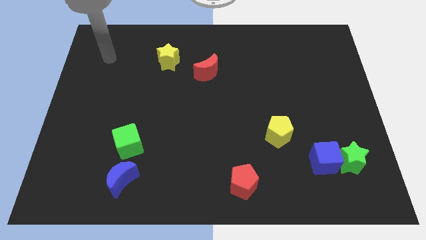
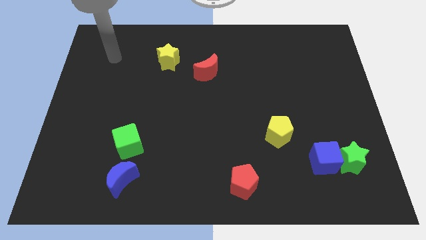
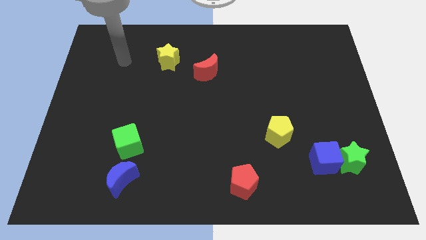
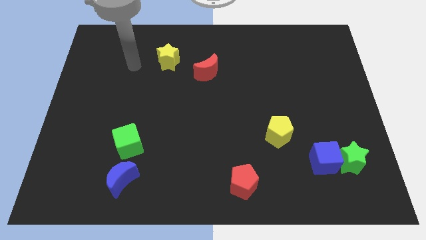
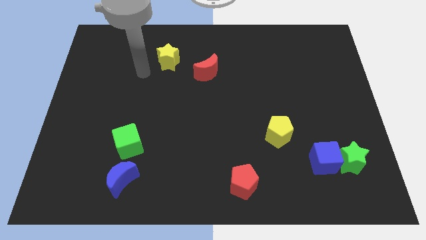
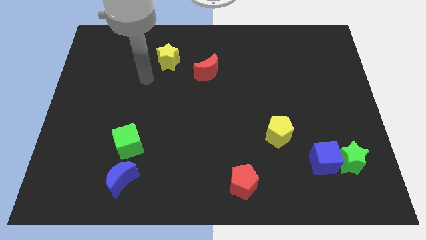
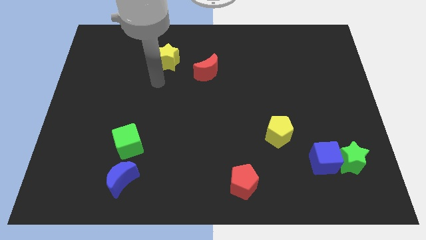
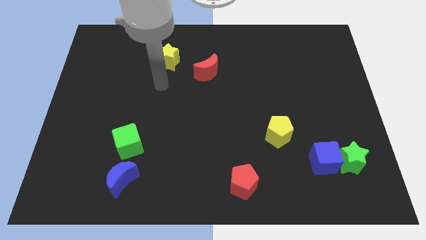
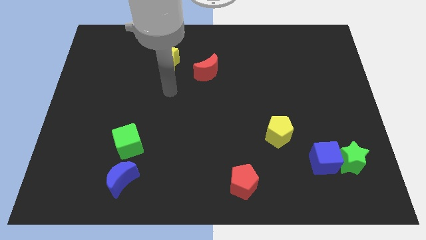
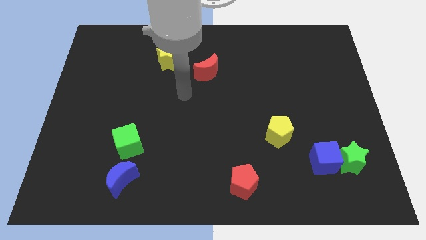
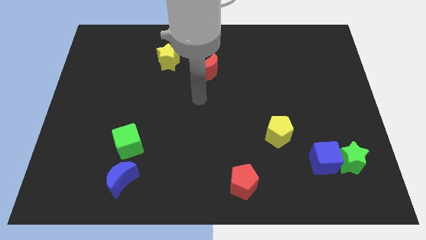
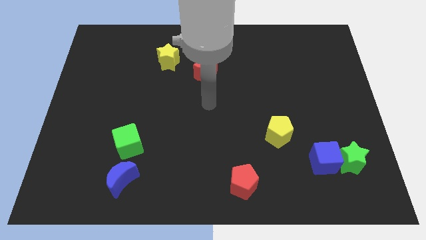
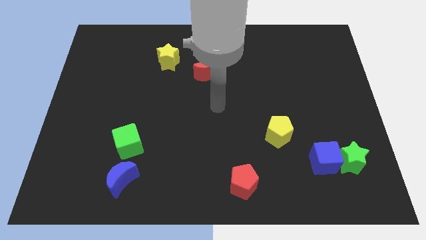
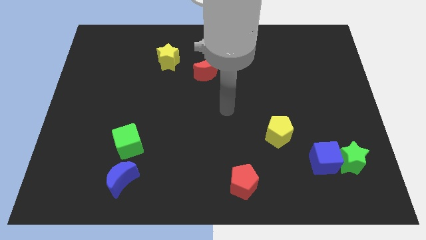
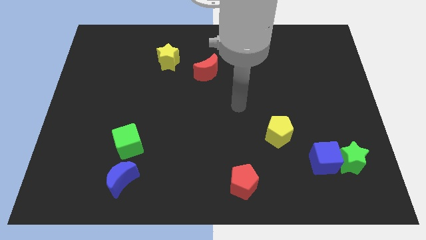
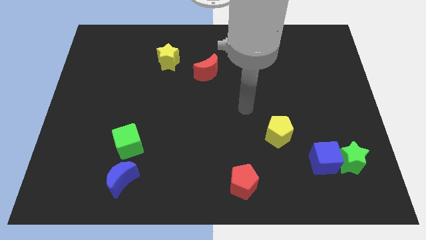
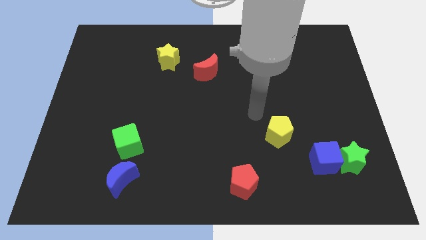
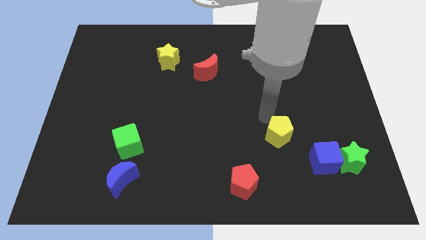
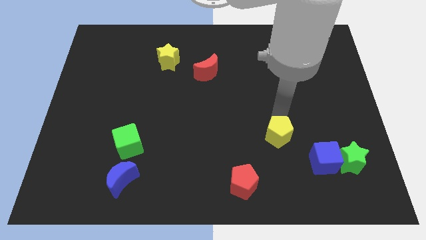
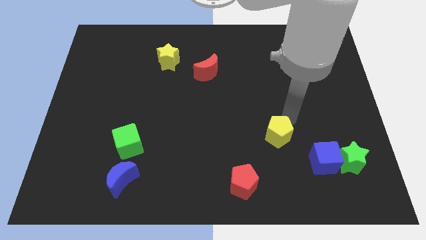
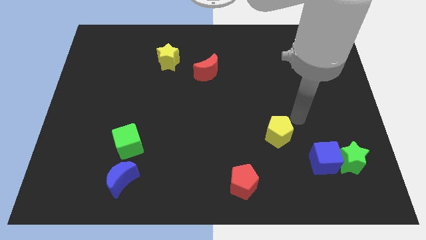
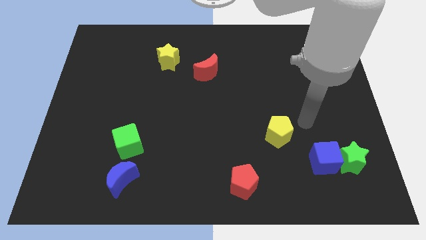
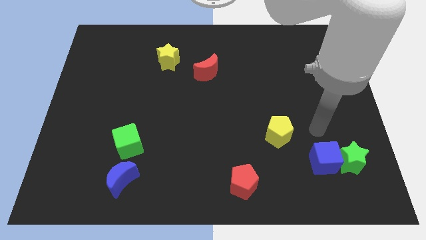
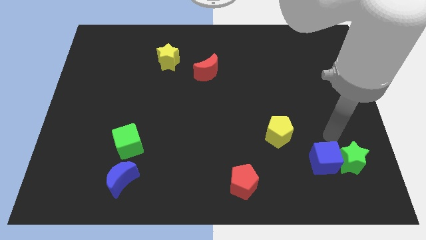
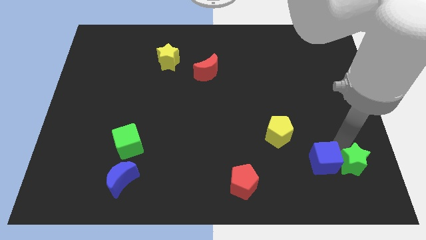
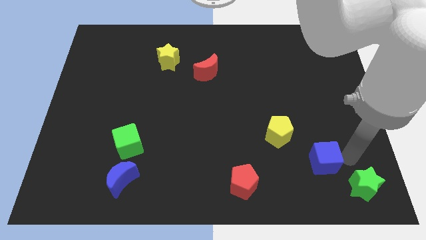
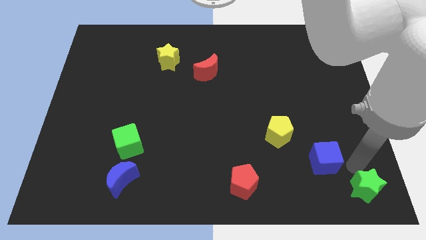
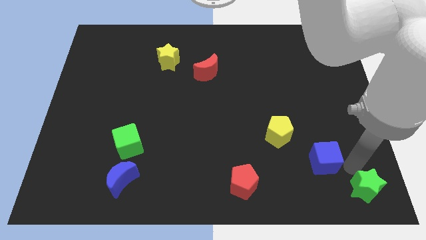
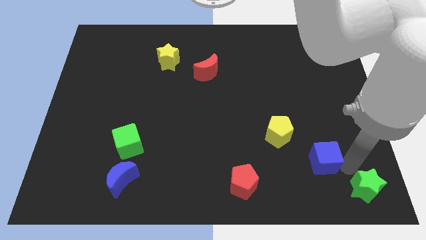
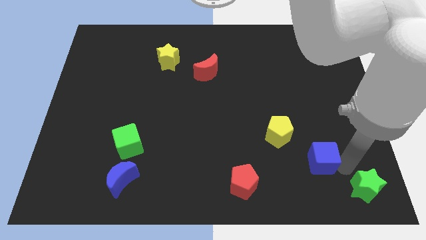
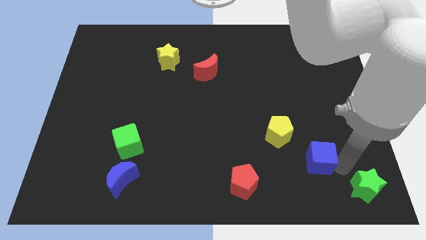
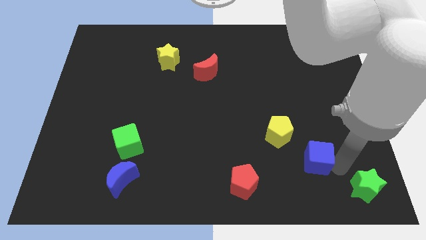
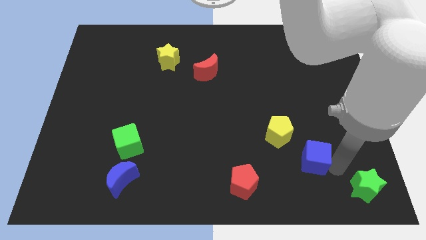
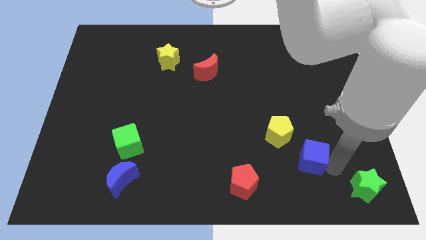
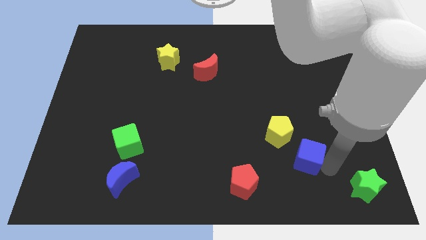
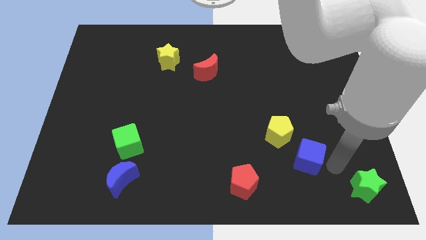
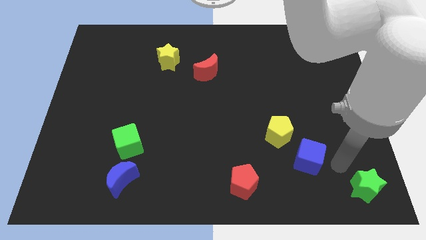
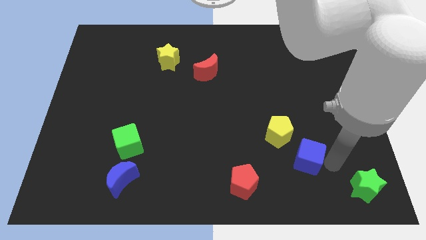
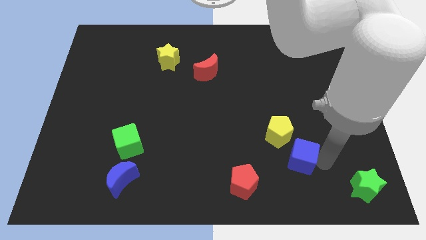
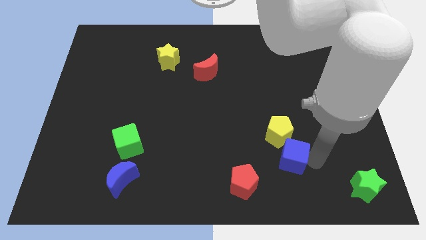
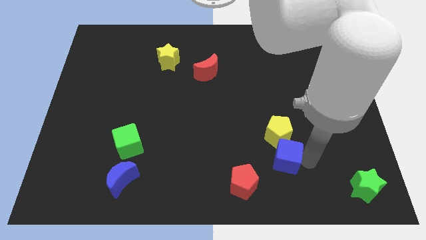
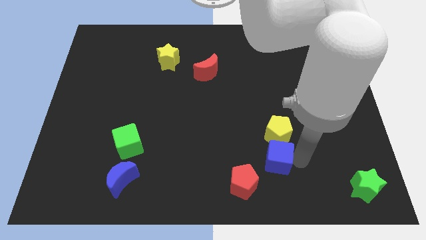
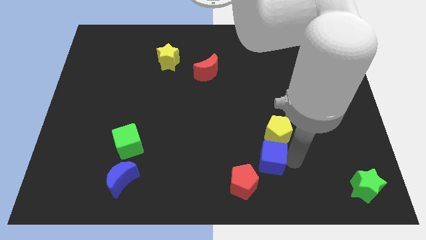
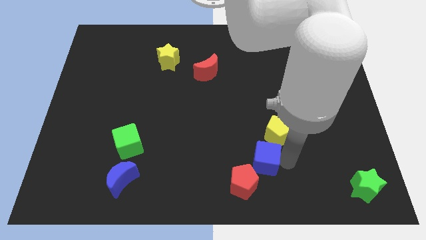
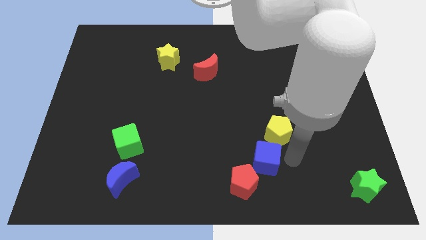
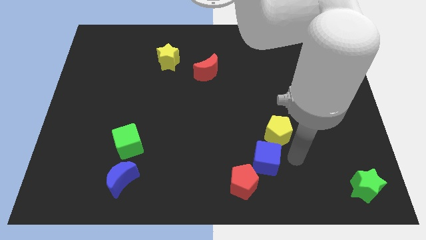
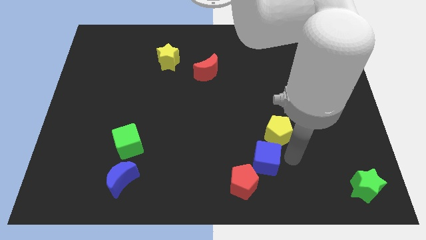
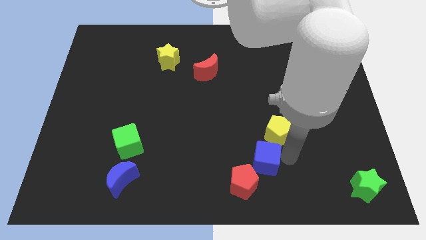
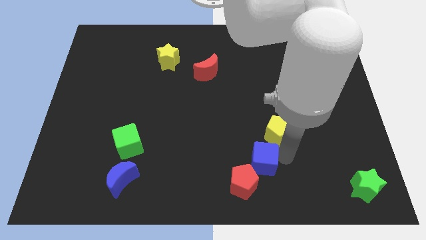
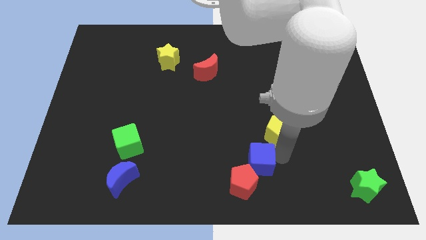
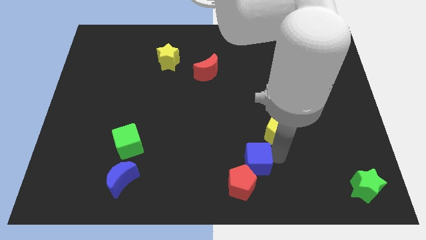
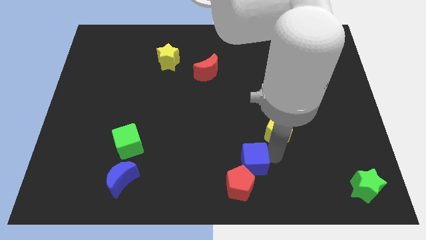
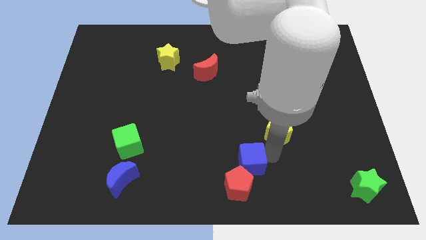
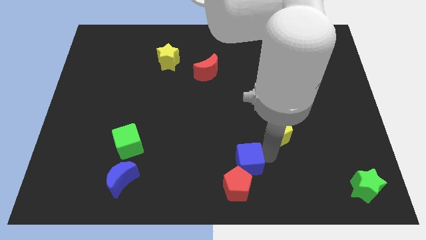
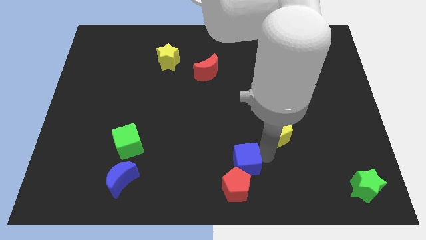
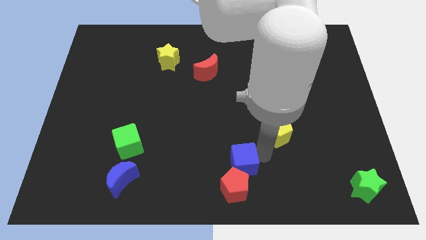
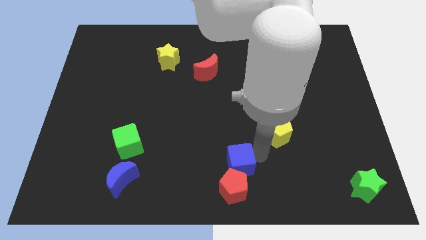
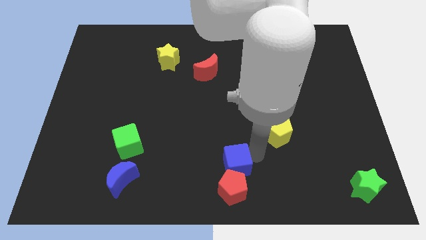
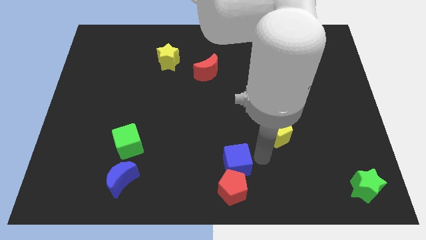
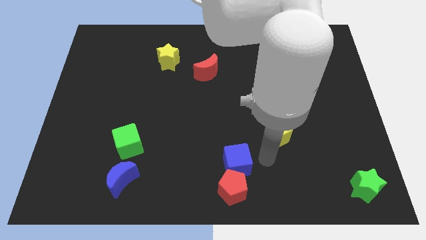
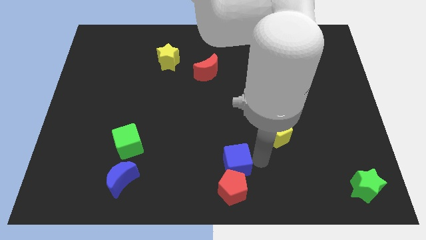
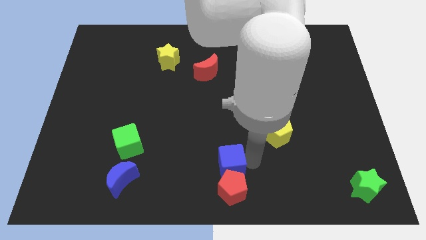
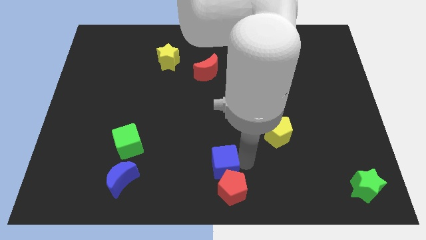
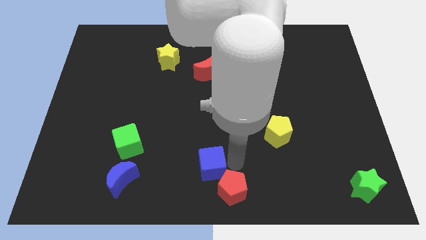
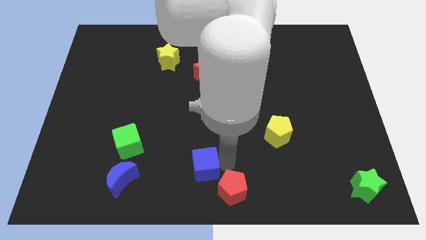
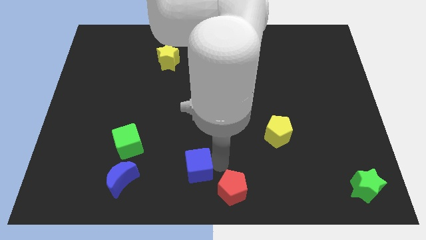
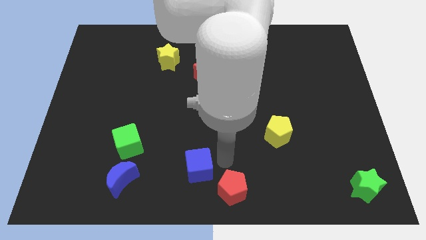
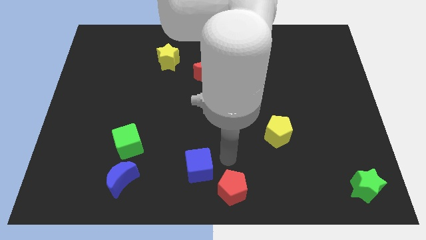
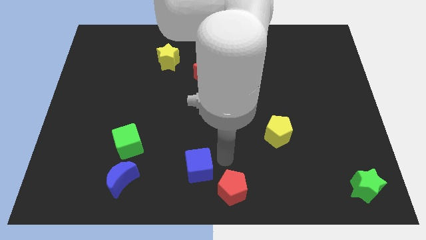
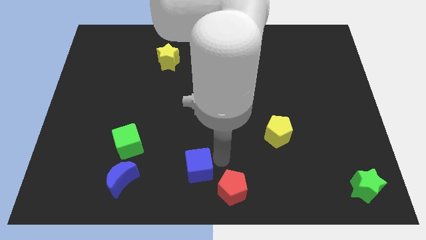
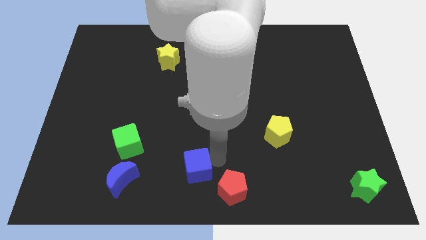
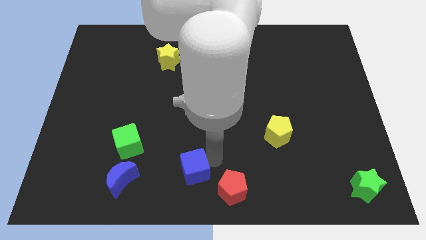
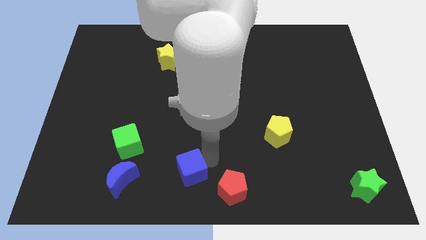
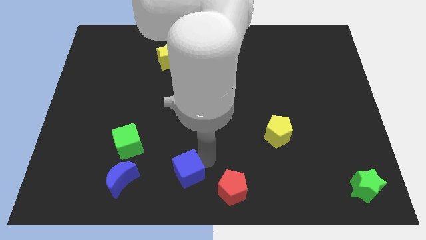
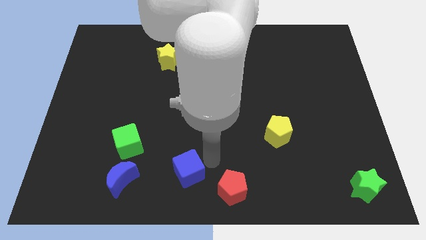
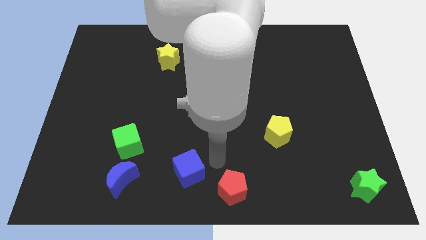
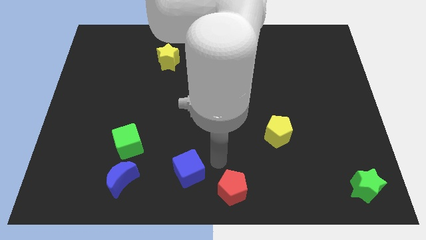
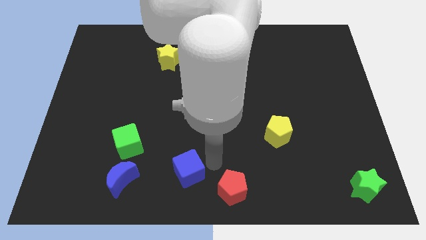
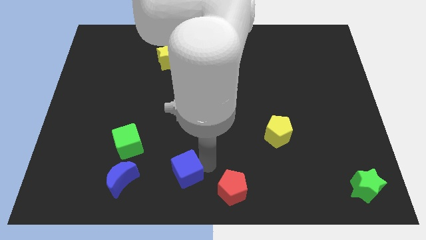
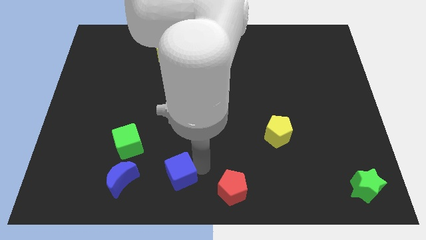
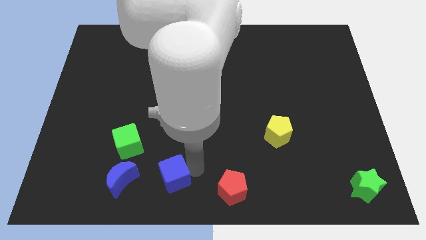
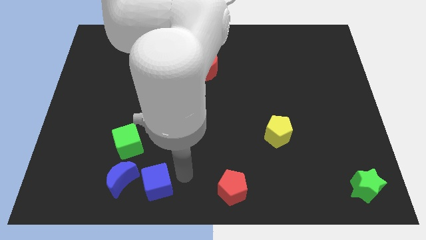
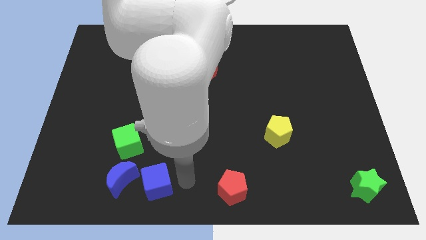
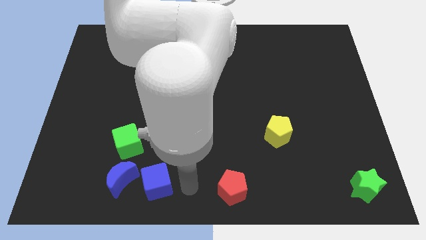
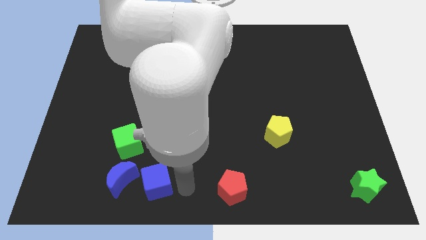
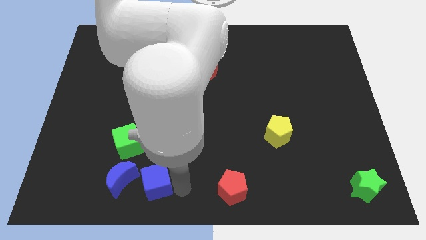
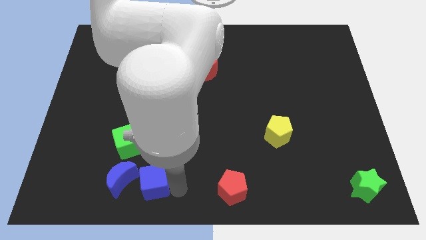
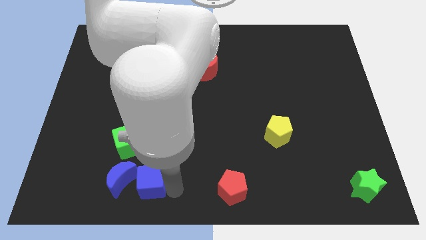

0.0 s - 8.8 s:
put the blue cube next to the blue moon
